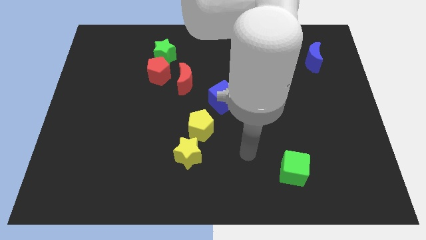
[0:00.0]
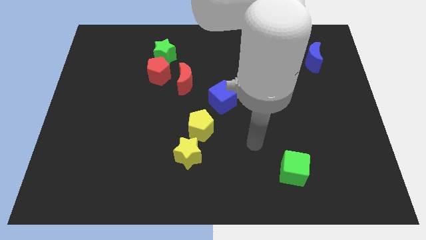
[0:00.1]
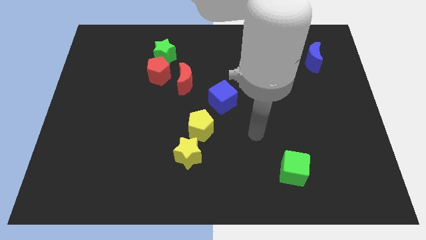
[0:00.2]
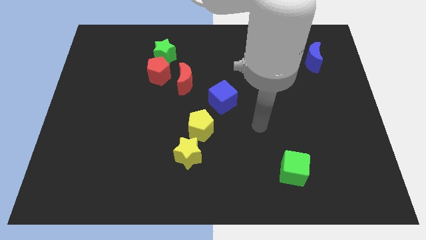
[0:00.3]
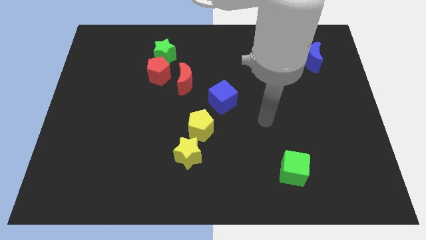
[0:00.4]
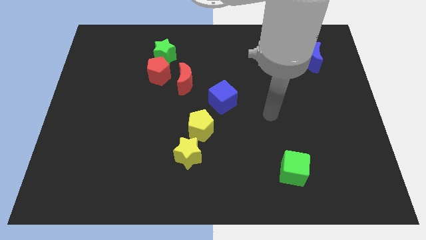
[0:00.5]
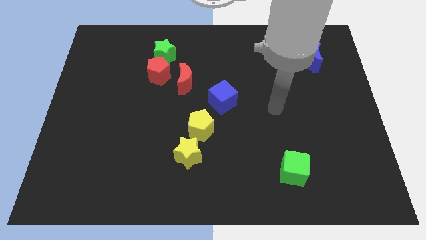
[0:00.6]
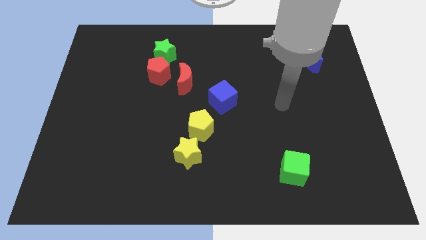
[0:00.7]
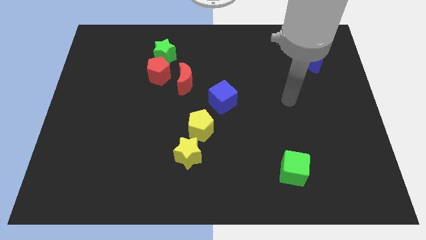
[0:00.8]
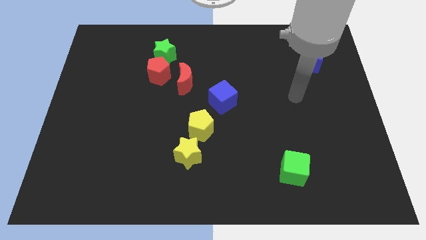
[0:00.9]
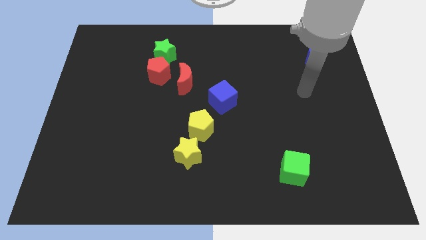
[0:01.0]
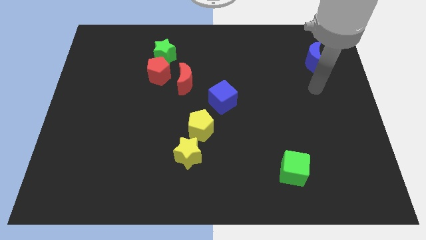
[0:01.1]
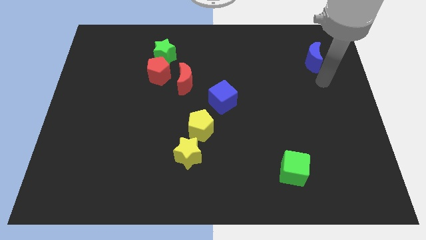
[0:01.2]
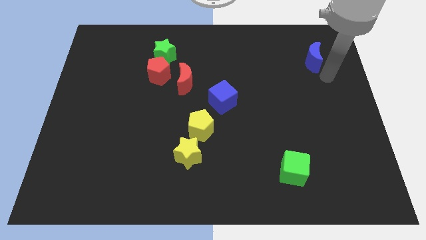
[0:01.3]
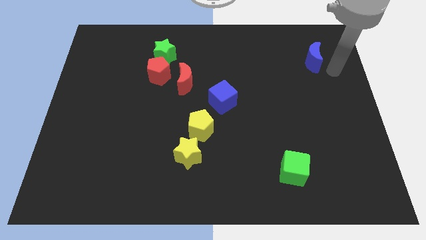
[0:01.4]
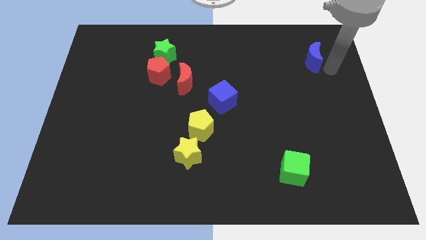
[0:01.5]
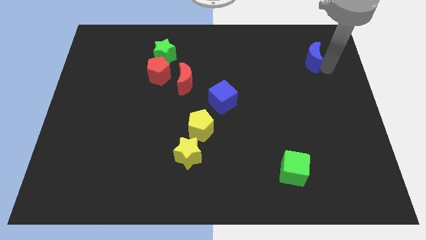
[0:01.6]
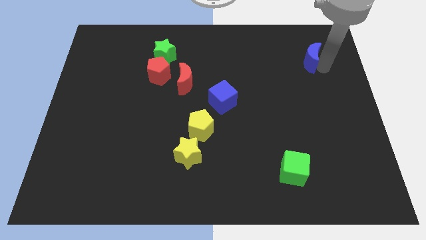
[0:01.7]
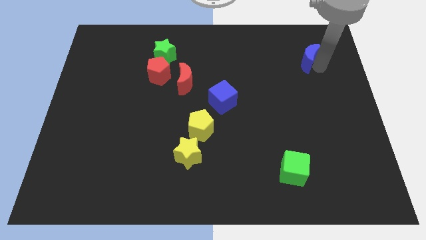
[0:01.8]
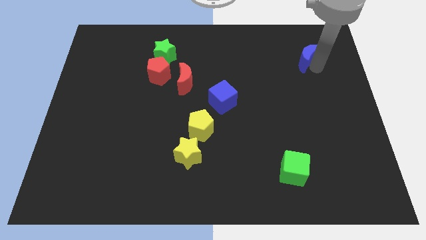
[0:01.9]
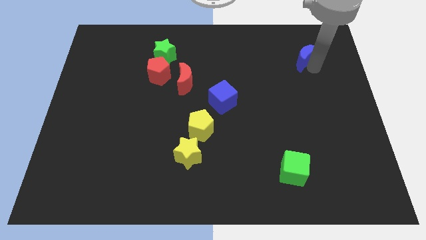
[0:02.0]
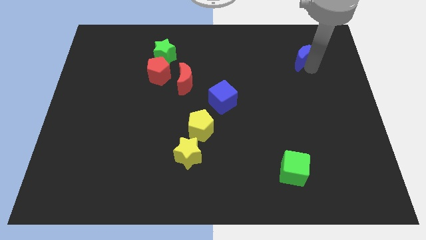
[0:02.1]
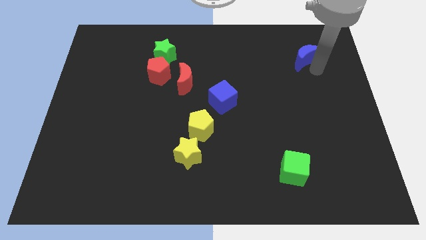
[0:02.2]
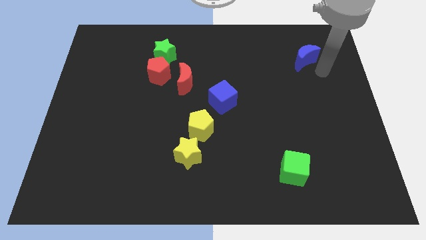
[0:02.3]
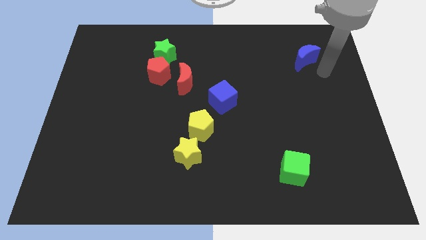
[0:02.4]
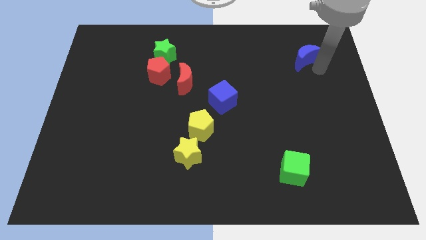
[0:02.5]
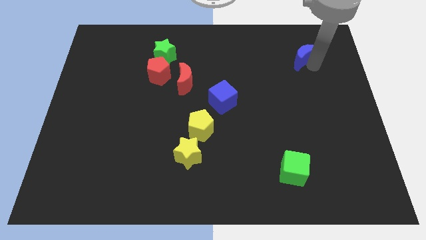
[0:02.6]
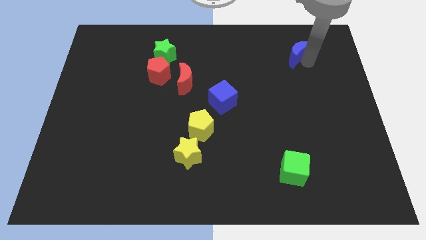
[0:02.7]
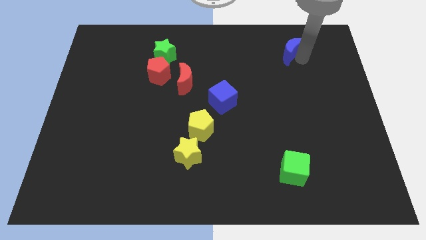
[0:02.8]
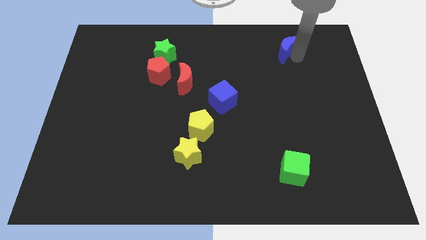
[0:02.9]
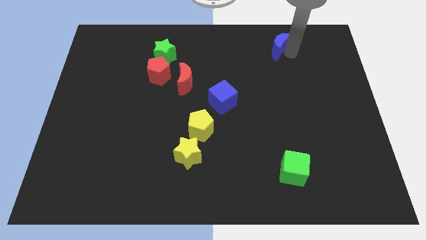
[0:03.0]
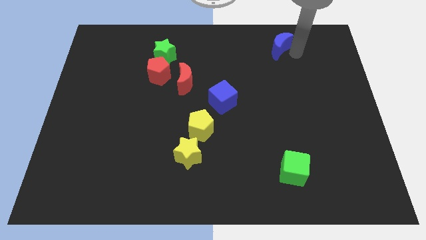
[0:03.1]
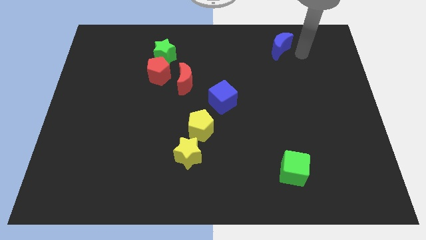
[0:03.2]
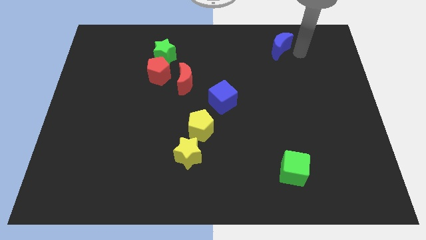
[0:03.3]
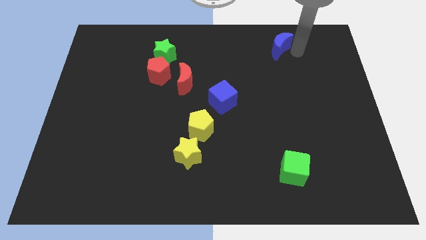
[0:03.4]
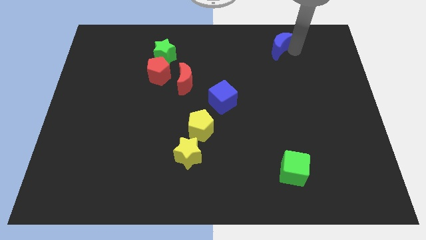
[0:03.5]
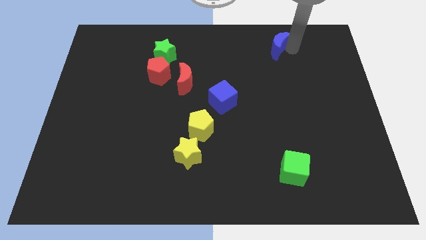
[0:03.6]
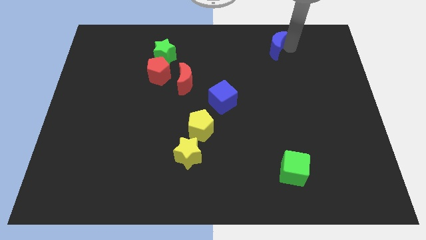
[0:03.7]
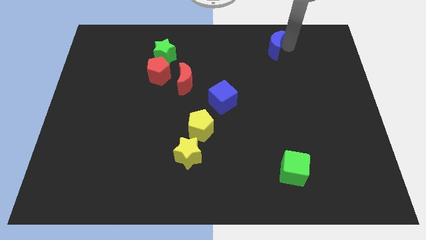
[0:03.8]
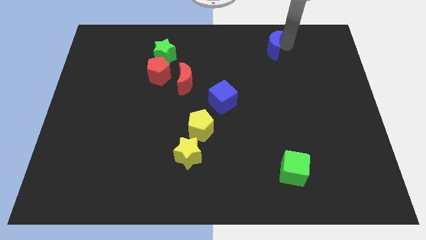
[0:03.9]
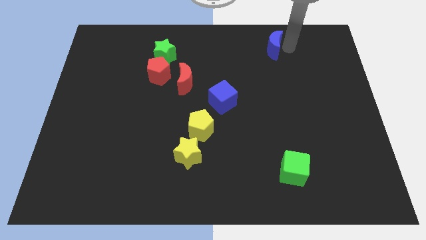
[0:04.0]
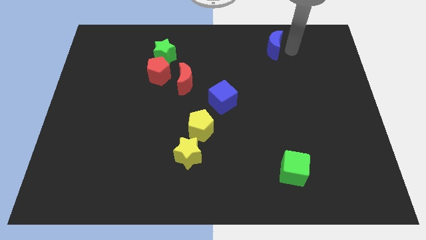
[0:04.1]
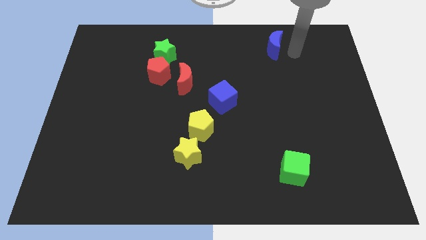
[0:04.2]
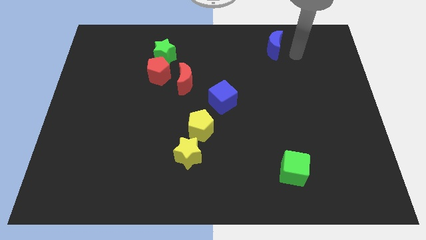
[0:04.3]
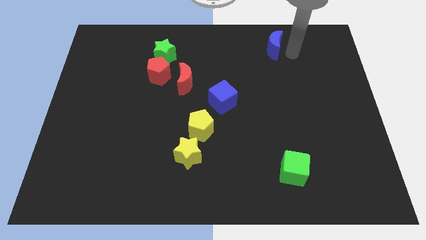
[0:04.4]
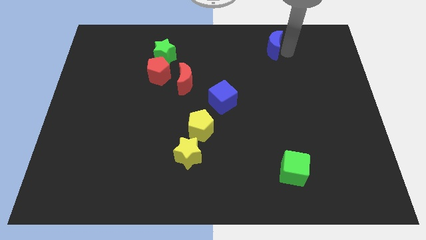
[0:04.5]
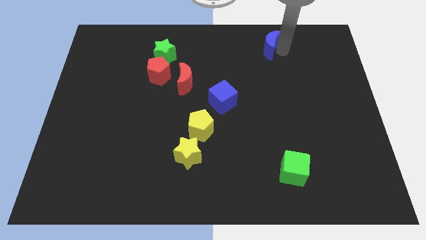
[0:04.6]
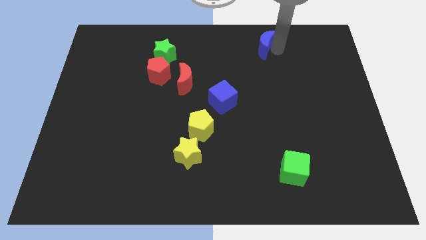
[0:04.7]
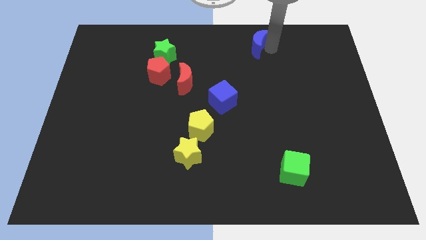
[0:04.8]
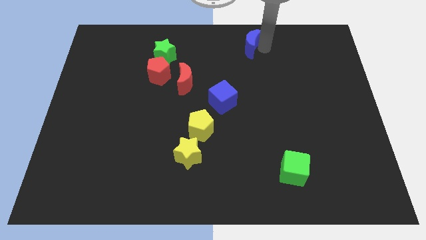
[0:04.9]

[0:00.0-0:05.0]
push the blue moon to the top

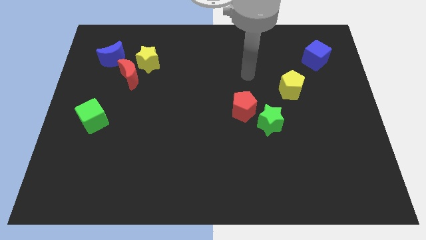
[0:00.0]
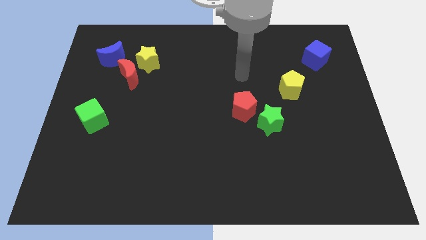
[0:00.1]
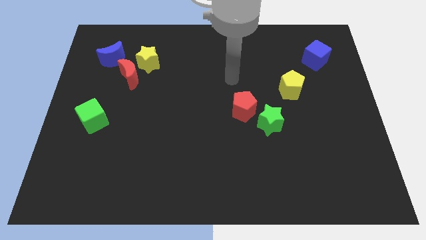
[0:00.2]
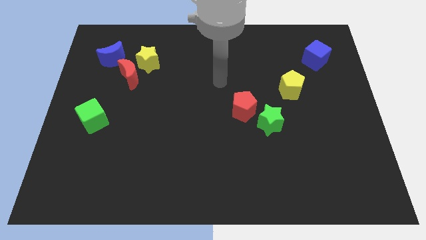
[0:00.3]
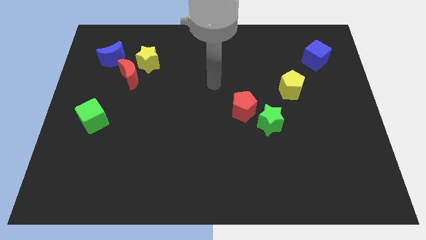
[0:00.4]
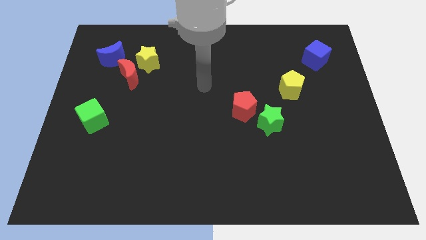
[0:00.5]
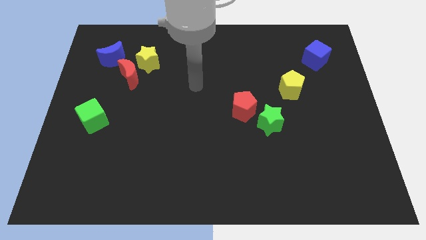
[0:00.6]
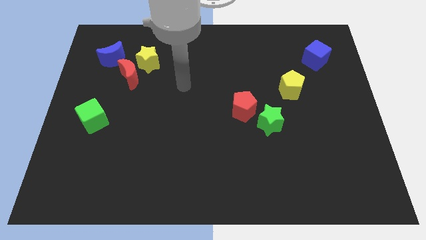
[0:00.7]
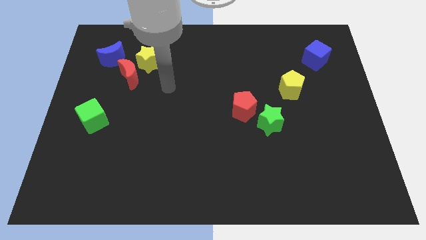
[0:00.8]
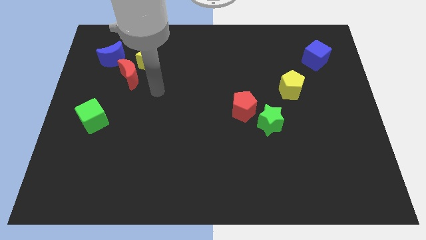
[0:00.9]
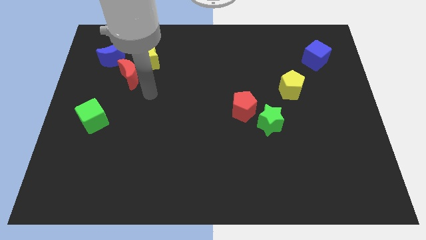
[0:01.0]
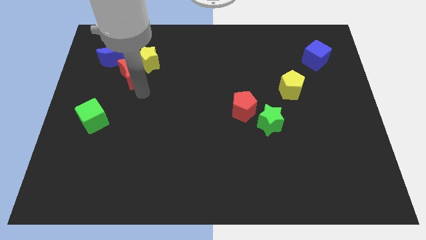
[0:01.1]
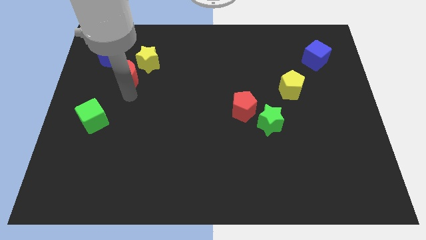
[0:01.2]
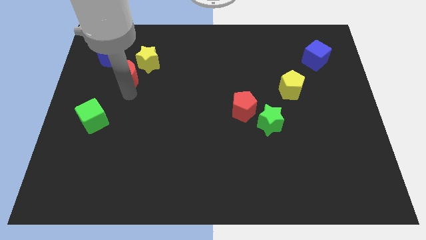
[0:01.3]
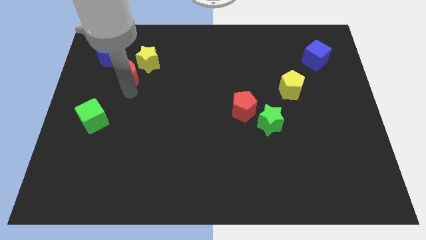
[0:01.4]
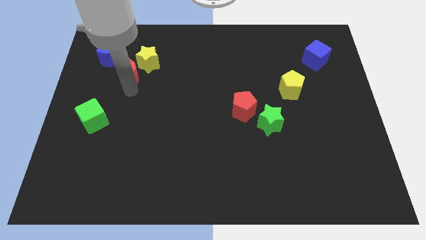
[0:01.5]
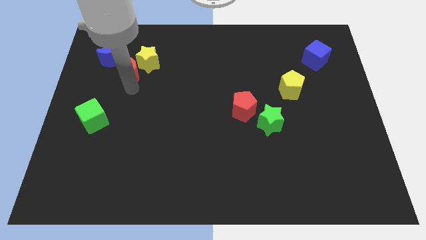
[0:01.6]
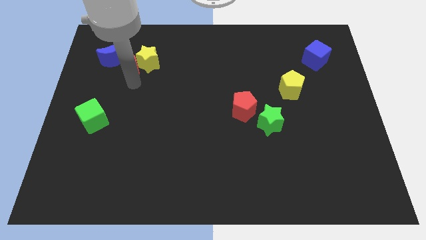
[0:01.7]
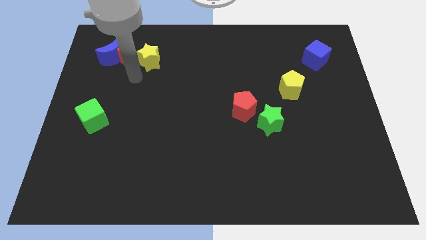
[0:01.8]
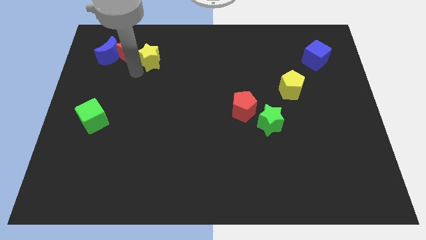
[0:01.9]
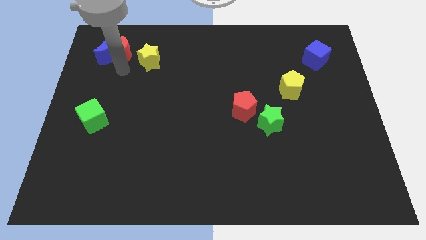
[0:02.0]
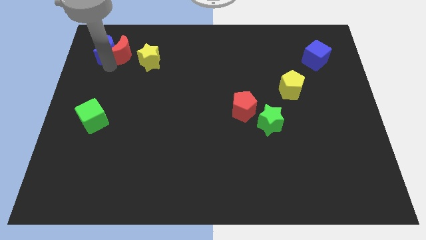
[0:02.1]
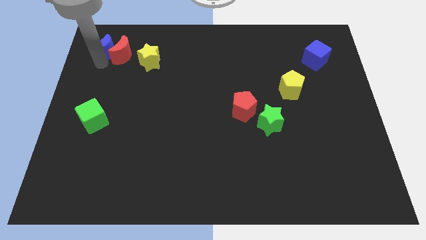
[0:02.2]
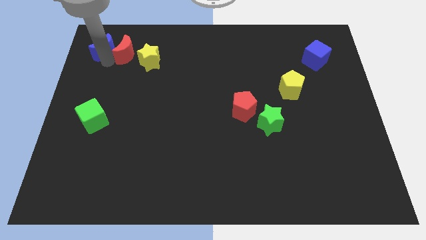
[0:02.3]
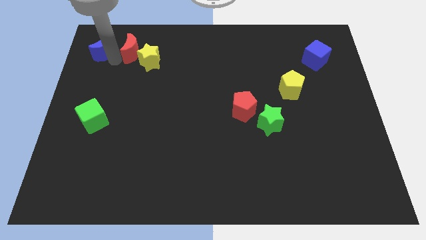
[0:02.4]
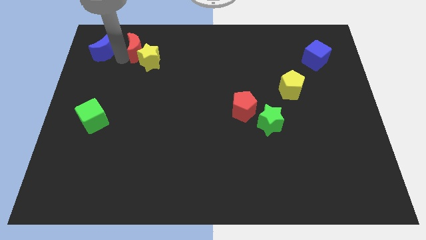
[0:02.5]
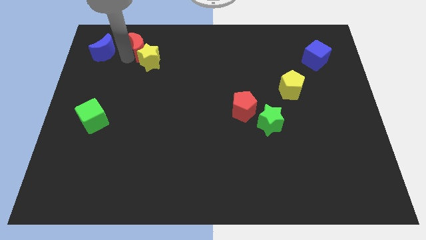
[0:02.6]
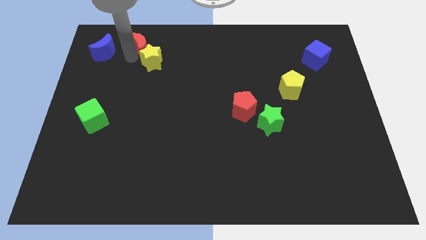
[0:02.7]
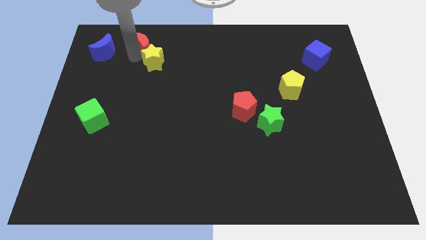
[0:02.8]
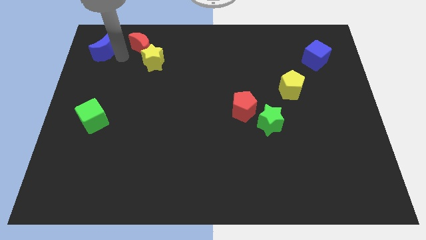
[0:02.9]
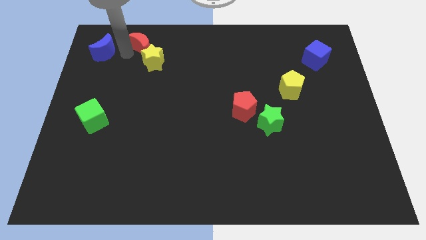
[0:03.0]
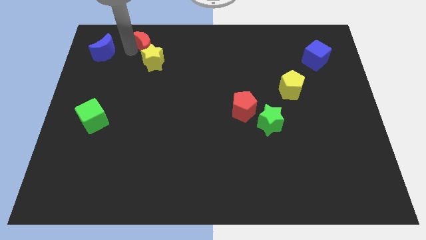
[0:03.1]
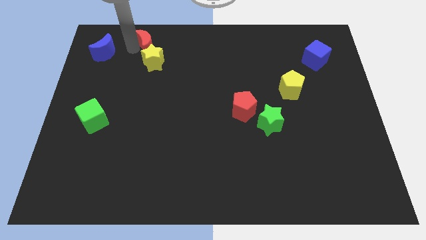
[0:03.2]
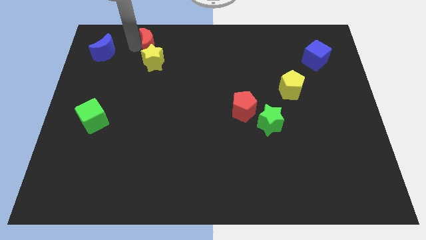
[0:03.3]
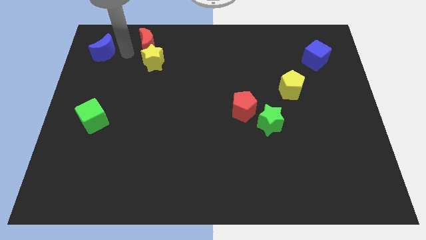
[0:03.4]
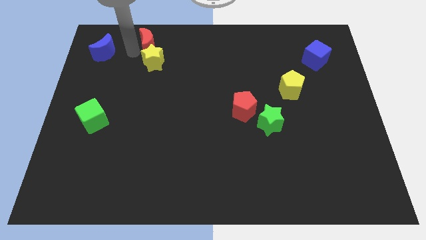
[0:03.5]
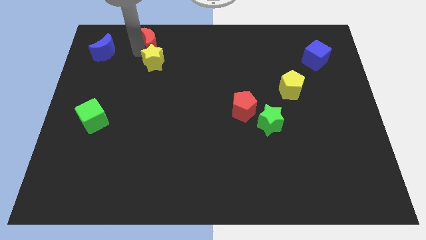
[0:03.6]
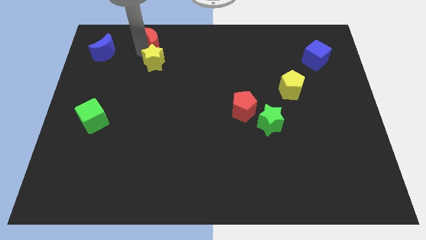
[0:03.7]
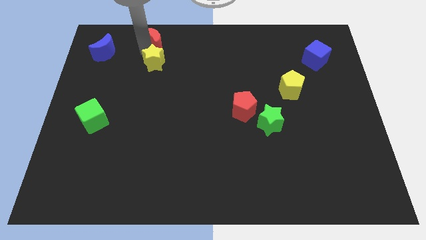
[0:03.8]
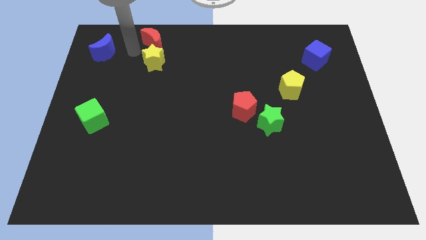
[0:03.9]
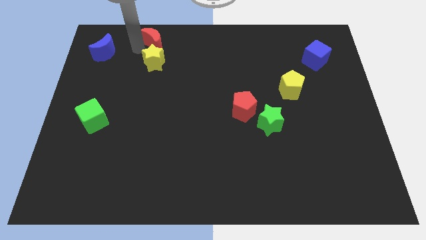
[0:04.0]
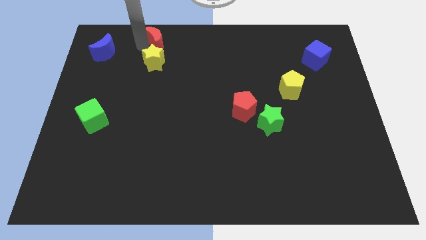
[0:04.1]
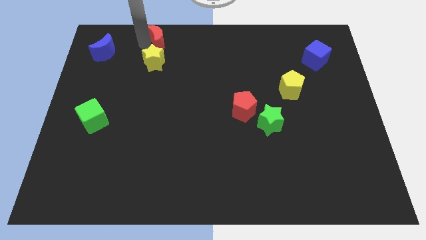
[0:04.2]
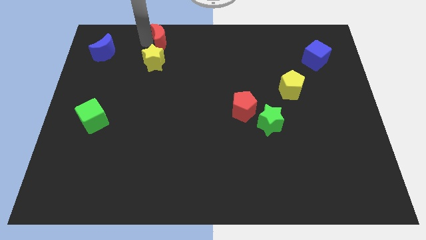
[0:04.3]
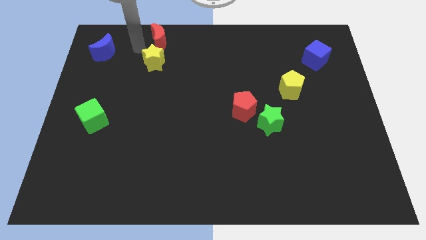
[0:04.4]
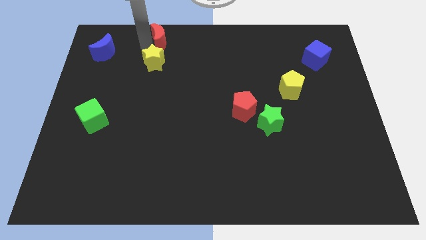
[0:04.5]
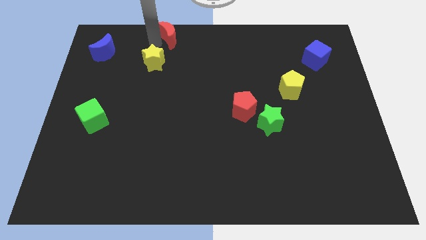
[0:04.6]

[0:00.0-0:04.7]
move the red moon to the top side
